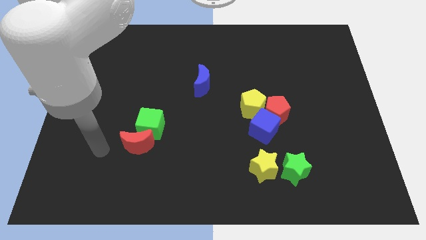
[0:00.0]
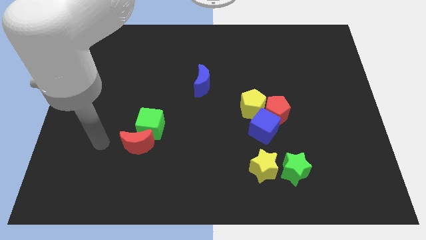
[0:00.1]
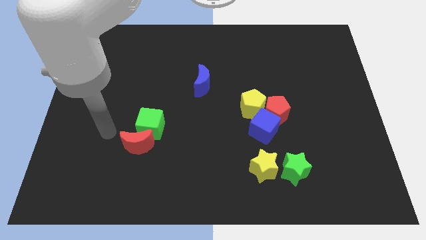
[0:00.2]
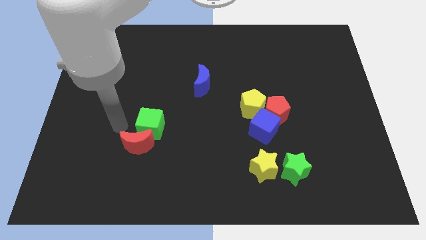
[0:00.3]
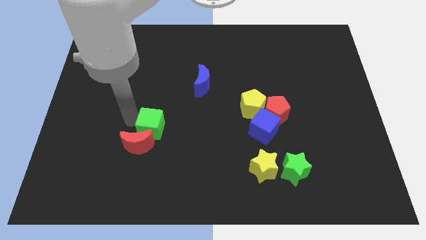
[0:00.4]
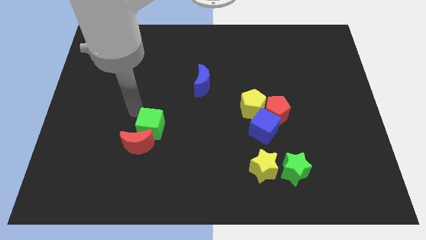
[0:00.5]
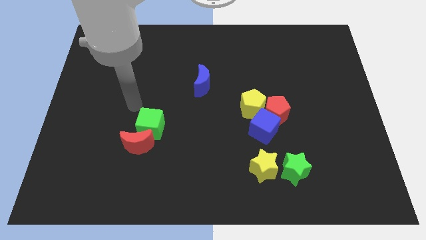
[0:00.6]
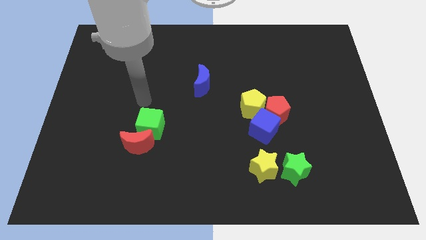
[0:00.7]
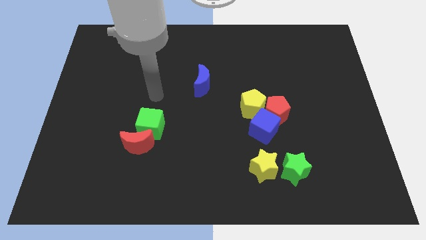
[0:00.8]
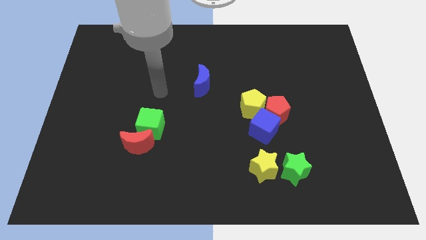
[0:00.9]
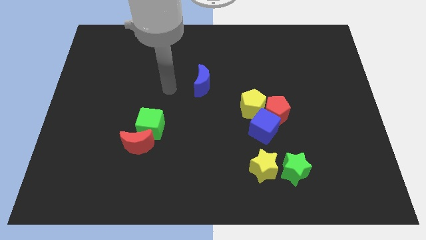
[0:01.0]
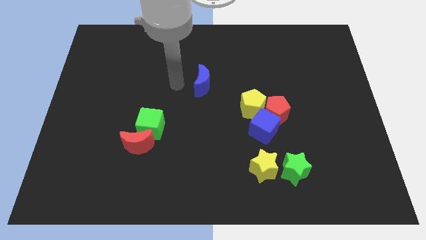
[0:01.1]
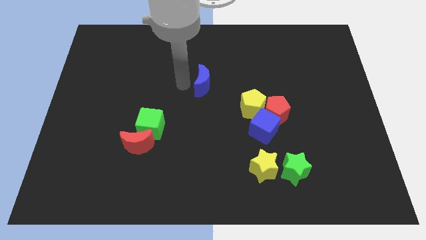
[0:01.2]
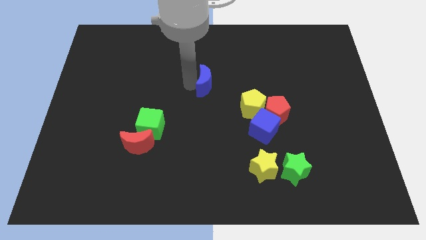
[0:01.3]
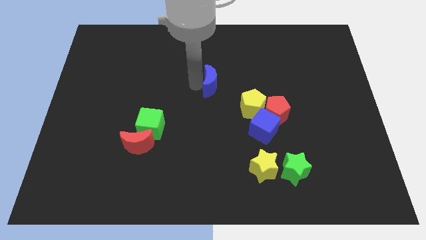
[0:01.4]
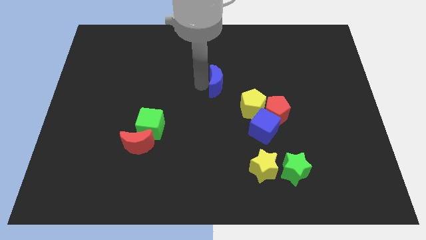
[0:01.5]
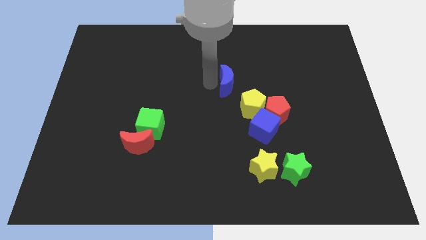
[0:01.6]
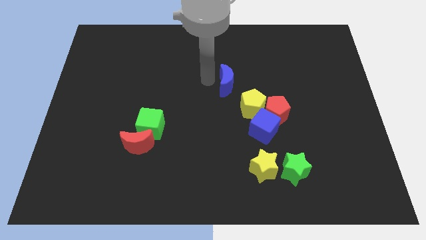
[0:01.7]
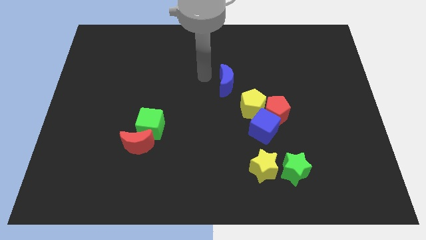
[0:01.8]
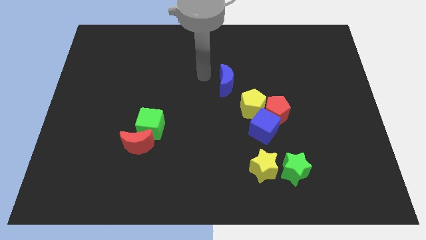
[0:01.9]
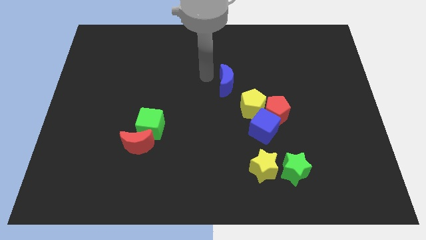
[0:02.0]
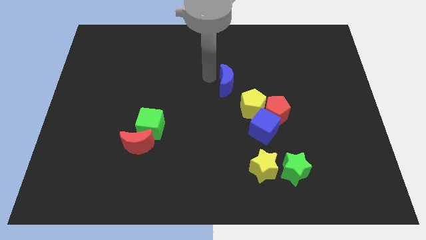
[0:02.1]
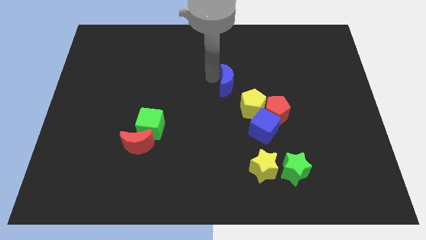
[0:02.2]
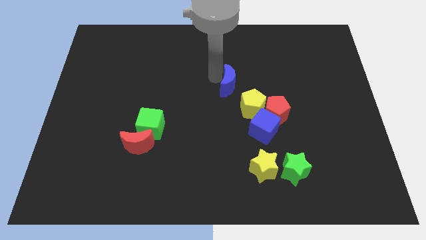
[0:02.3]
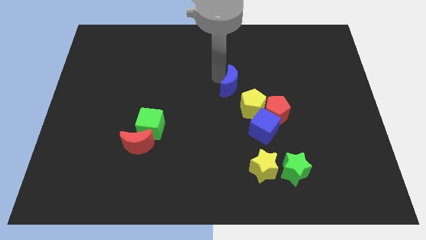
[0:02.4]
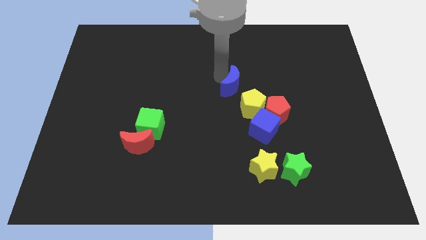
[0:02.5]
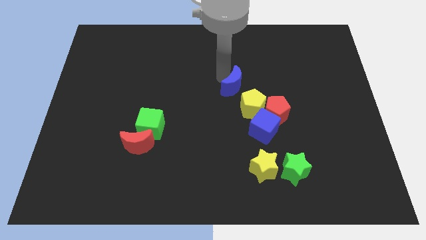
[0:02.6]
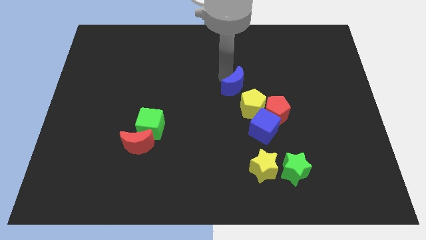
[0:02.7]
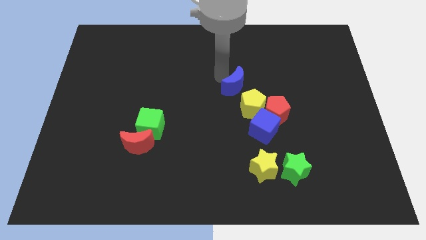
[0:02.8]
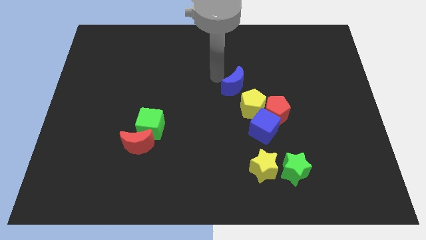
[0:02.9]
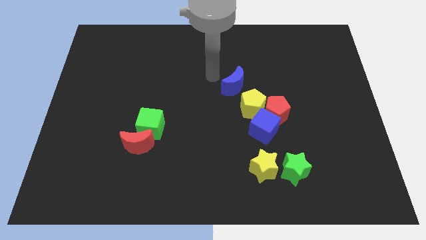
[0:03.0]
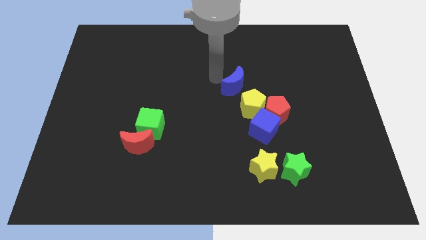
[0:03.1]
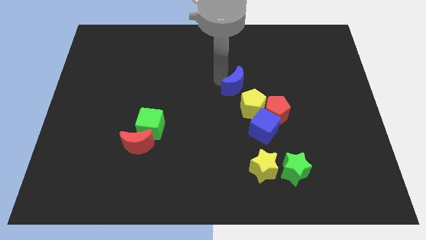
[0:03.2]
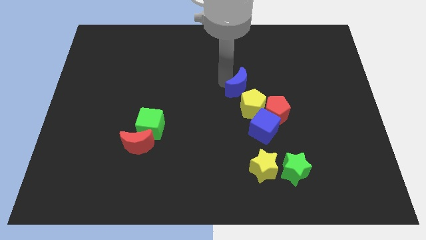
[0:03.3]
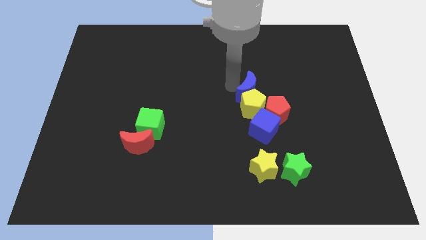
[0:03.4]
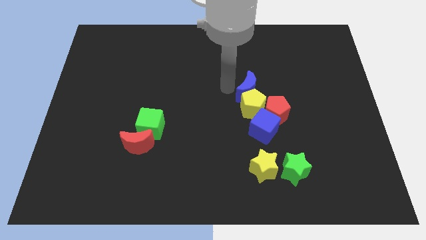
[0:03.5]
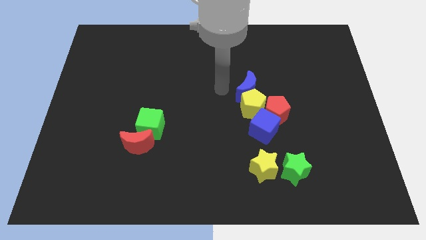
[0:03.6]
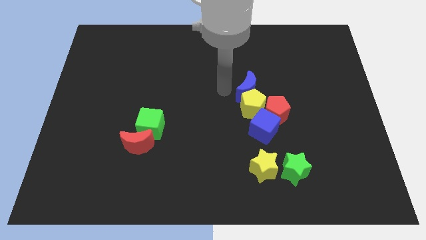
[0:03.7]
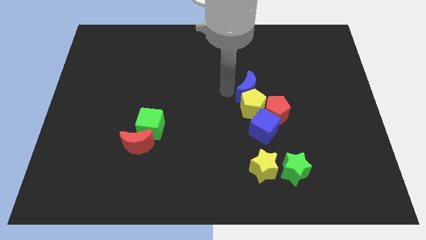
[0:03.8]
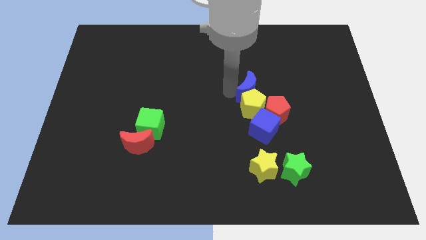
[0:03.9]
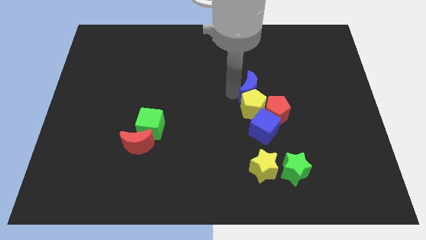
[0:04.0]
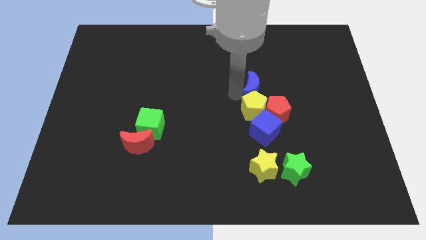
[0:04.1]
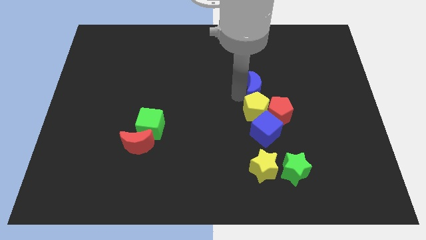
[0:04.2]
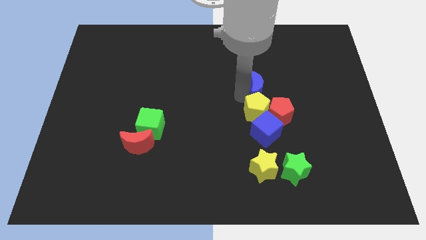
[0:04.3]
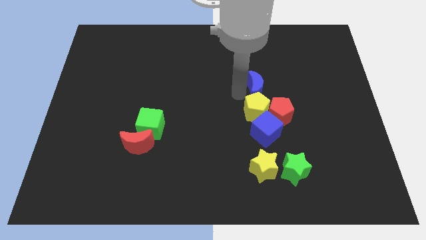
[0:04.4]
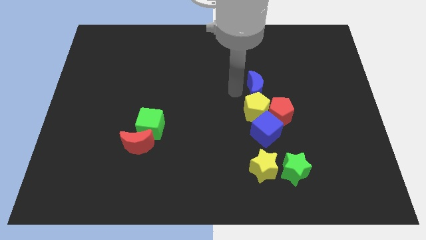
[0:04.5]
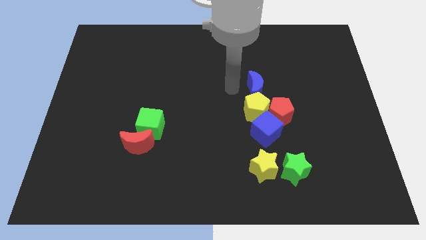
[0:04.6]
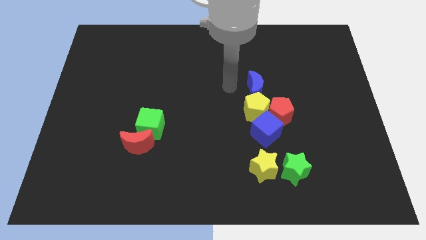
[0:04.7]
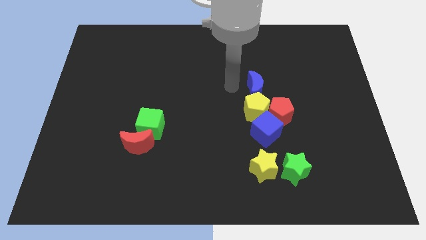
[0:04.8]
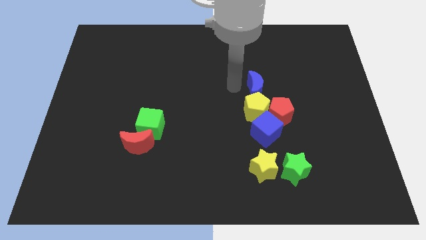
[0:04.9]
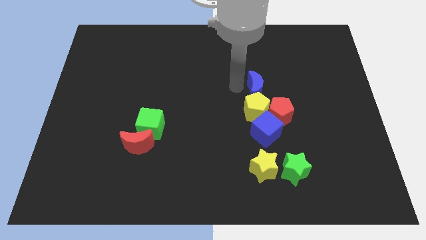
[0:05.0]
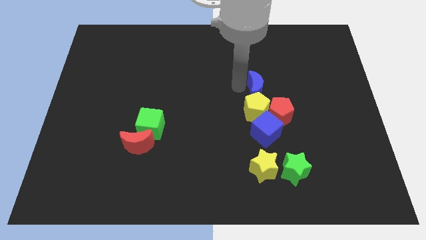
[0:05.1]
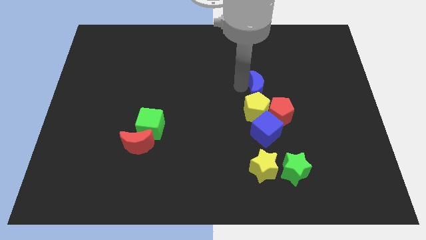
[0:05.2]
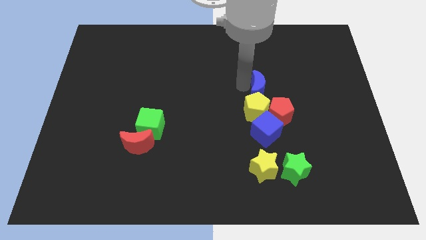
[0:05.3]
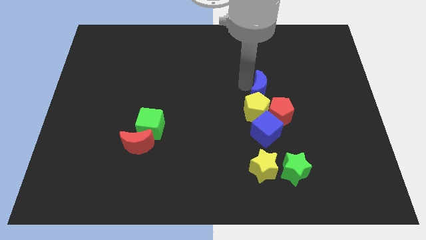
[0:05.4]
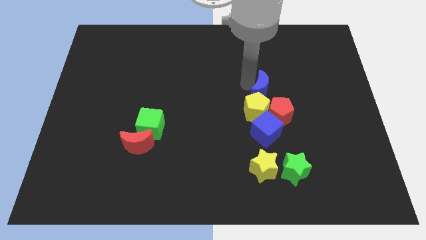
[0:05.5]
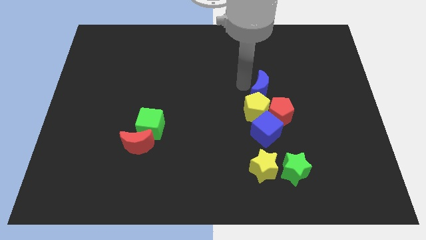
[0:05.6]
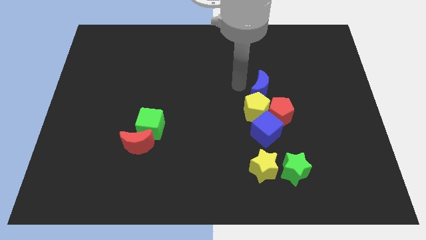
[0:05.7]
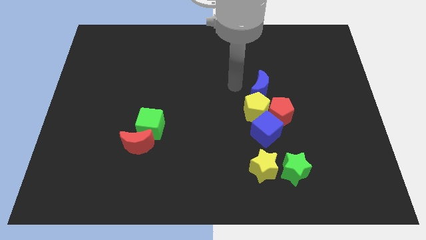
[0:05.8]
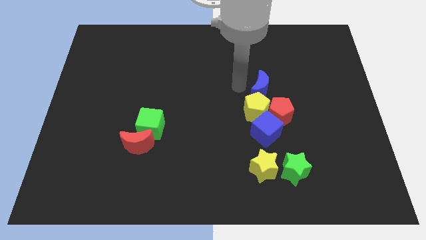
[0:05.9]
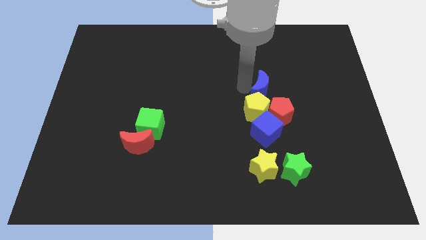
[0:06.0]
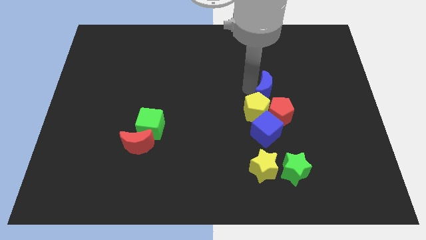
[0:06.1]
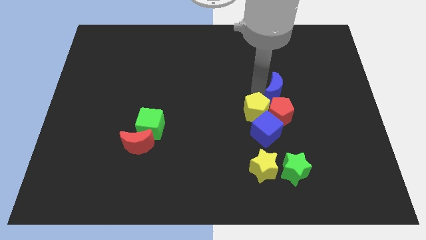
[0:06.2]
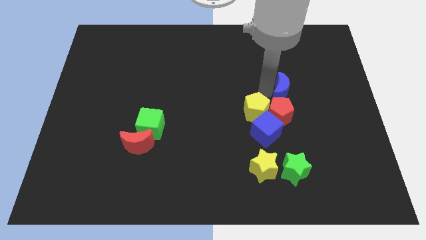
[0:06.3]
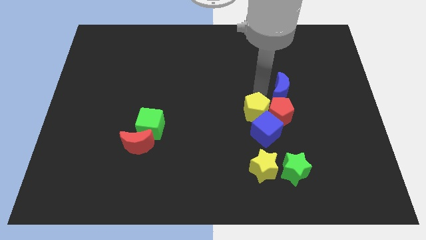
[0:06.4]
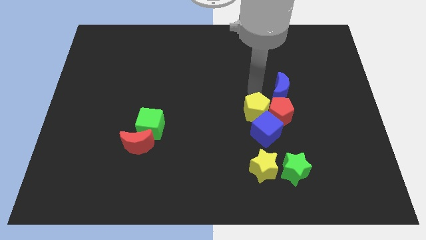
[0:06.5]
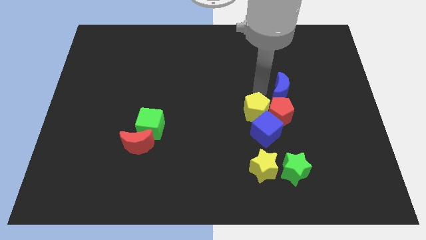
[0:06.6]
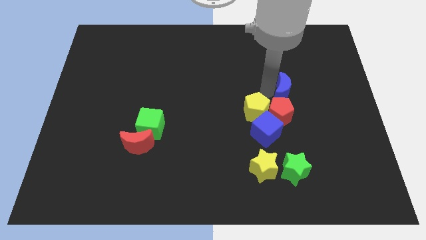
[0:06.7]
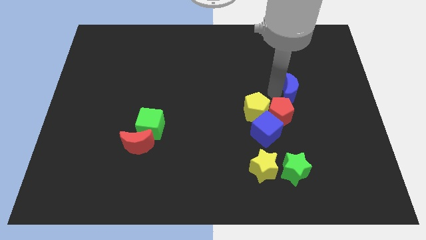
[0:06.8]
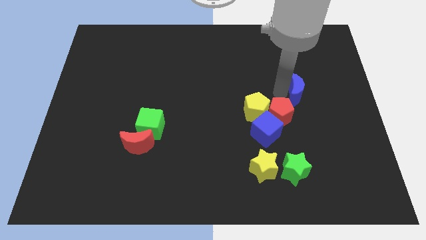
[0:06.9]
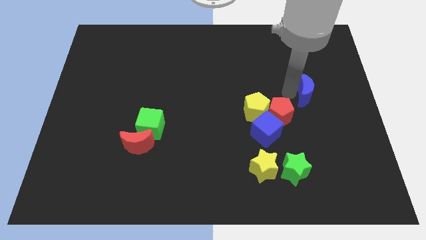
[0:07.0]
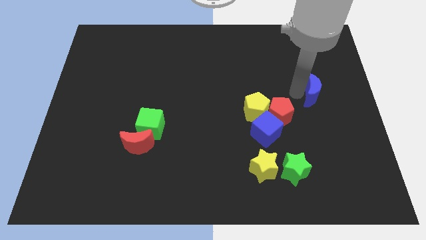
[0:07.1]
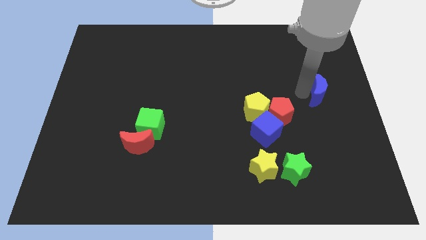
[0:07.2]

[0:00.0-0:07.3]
put the blue moon to the right side
